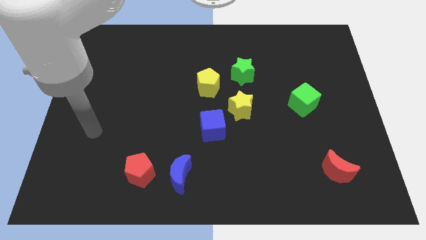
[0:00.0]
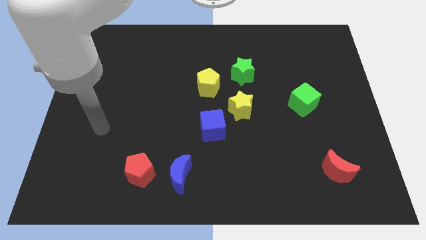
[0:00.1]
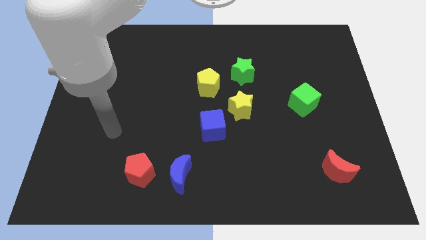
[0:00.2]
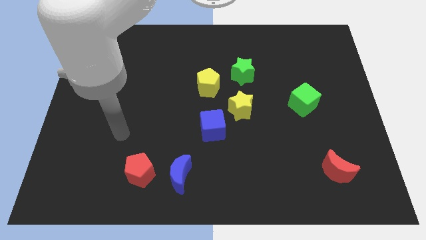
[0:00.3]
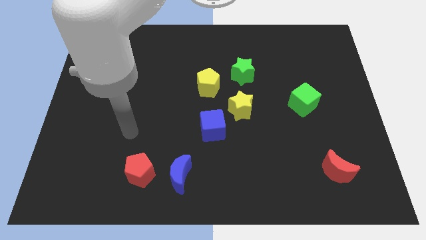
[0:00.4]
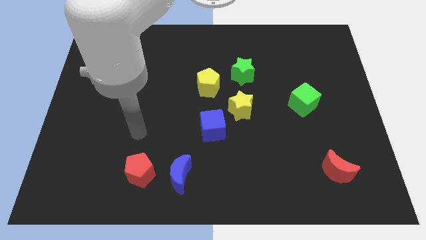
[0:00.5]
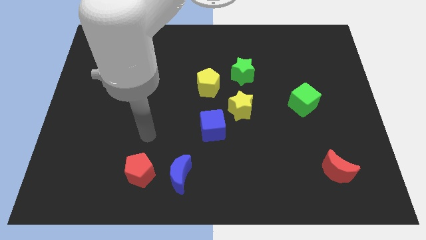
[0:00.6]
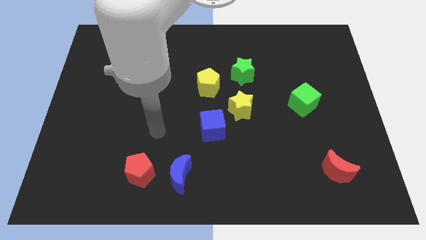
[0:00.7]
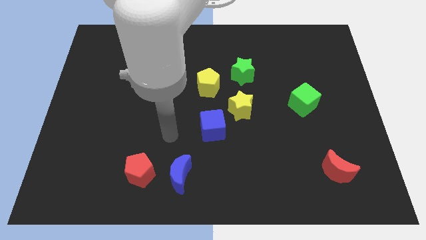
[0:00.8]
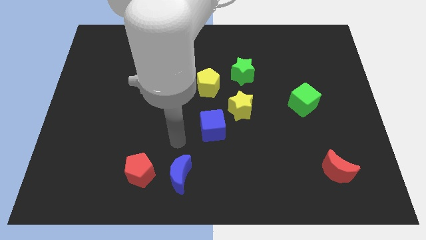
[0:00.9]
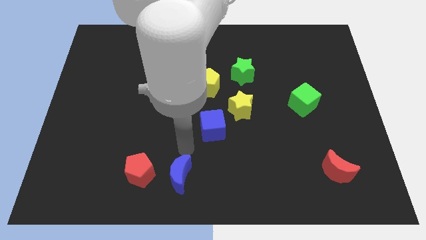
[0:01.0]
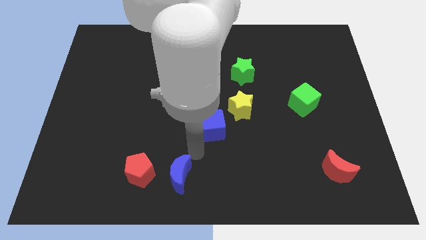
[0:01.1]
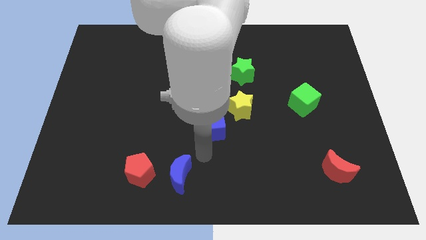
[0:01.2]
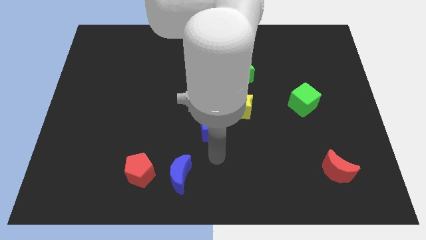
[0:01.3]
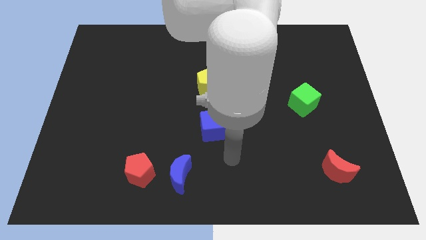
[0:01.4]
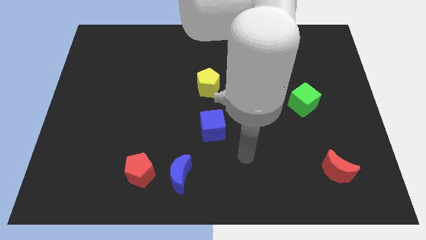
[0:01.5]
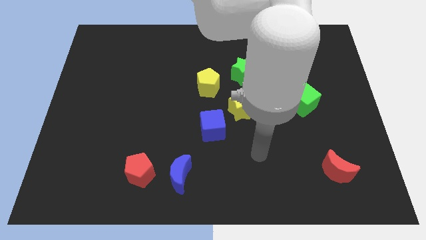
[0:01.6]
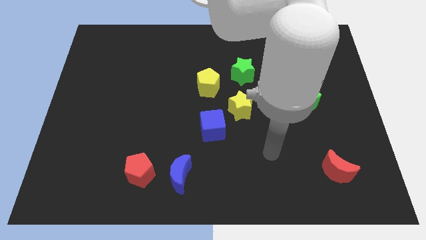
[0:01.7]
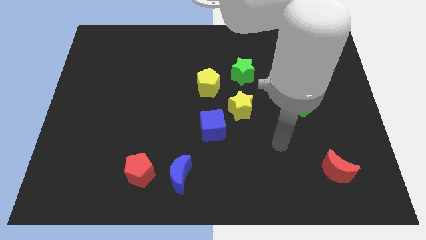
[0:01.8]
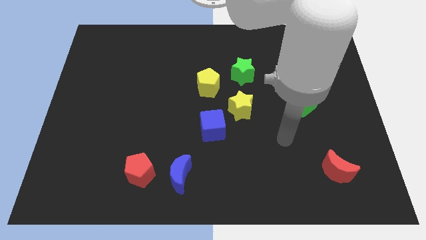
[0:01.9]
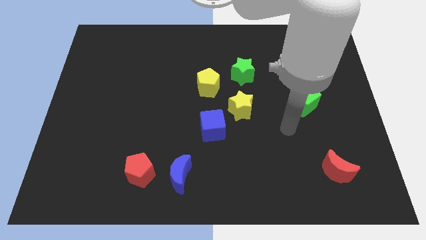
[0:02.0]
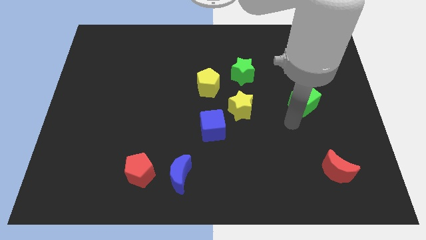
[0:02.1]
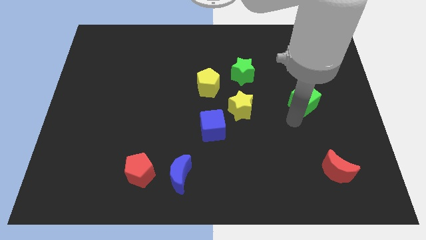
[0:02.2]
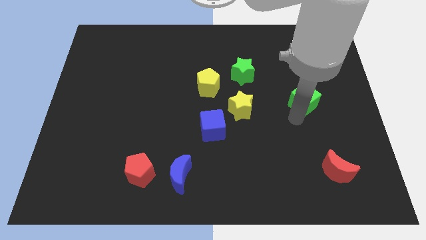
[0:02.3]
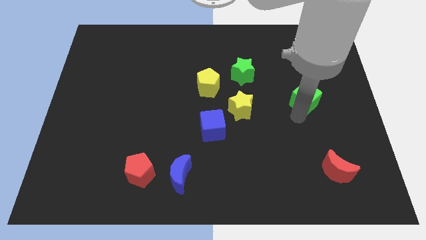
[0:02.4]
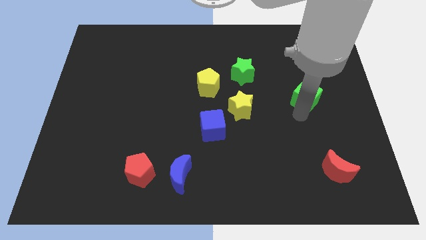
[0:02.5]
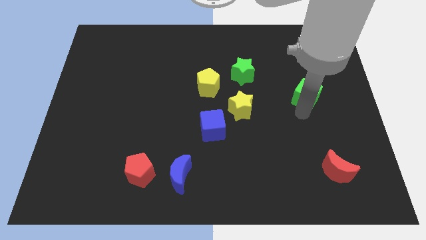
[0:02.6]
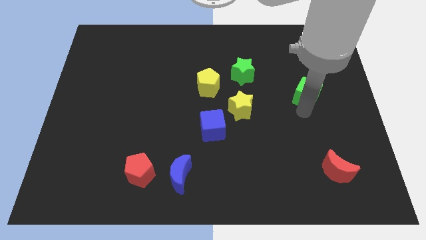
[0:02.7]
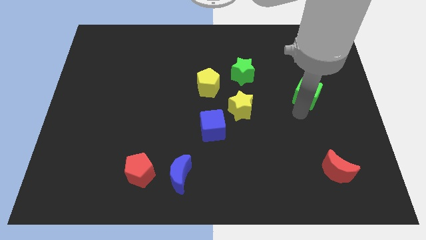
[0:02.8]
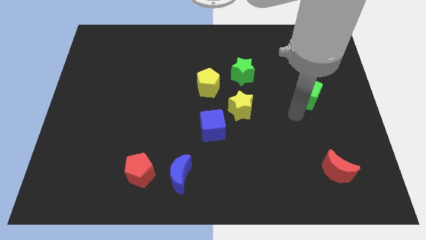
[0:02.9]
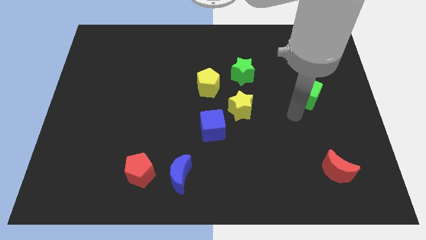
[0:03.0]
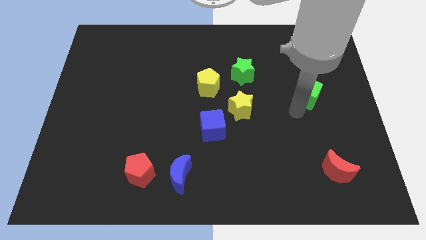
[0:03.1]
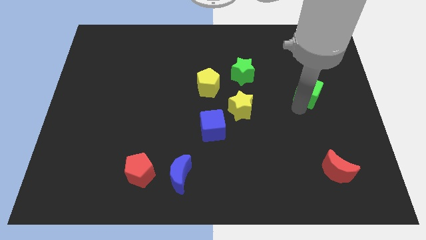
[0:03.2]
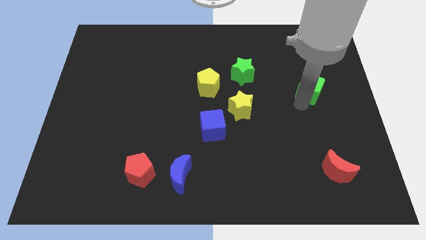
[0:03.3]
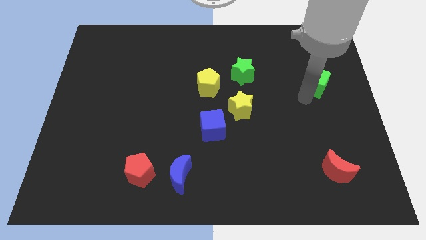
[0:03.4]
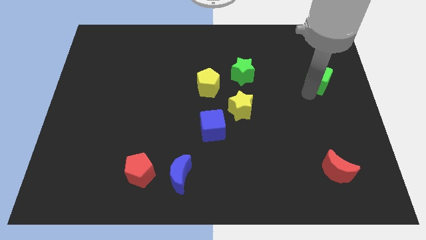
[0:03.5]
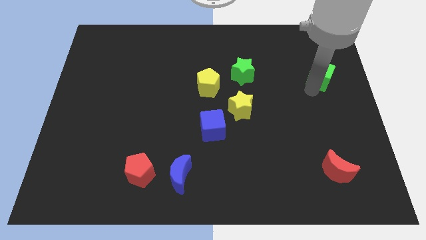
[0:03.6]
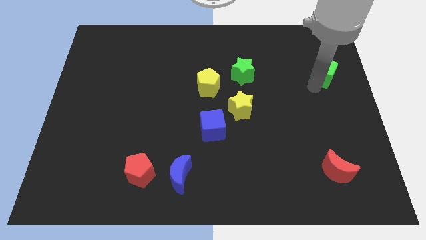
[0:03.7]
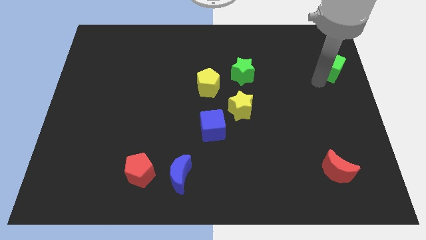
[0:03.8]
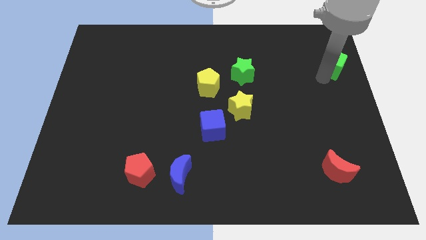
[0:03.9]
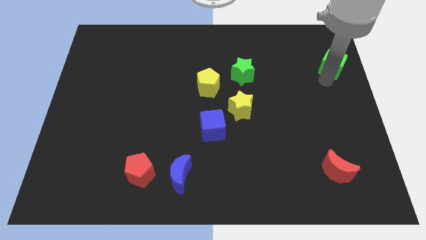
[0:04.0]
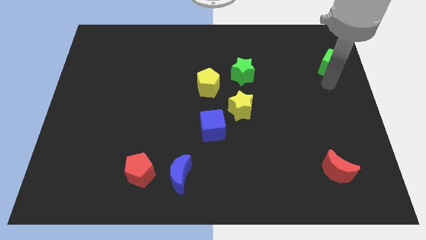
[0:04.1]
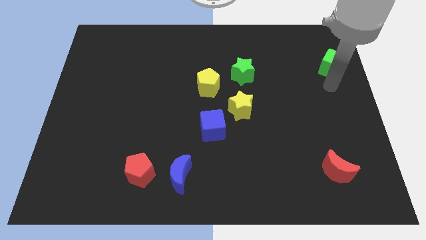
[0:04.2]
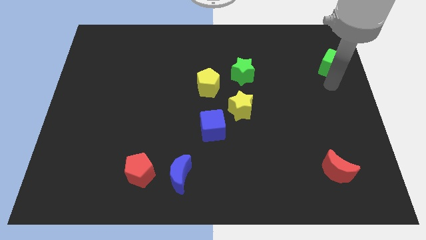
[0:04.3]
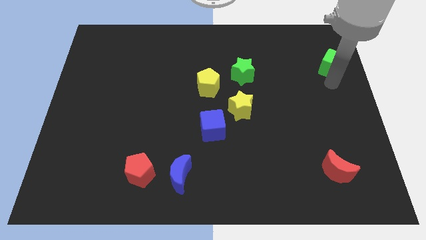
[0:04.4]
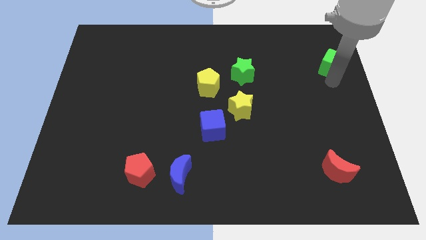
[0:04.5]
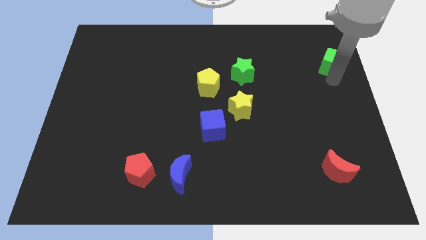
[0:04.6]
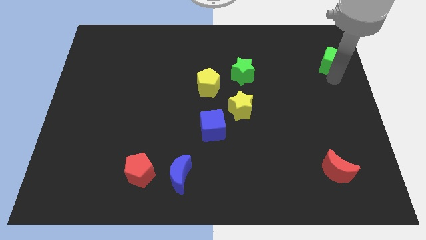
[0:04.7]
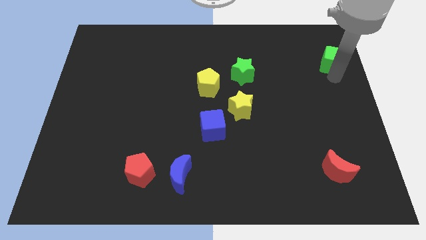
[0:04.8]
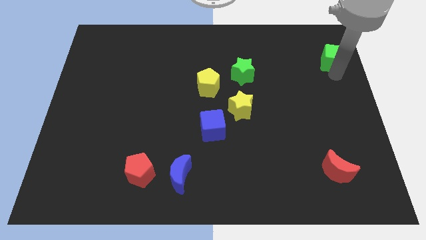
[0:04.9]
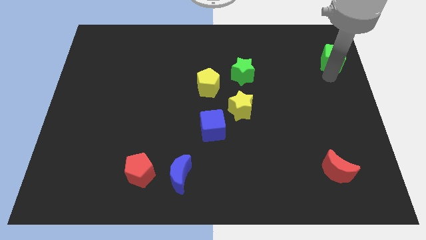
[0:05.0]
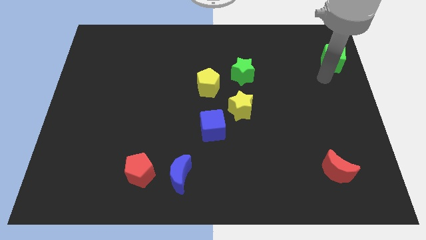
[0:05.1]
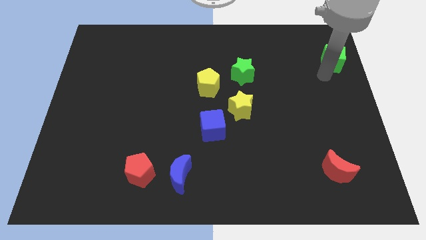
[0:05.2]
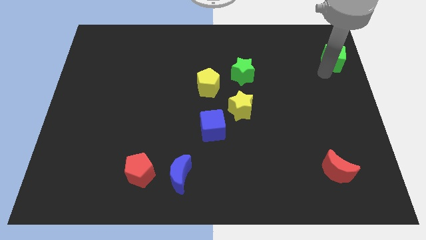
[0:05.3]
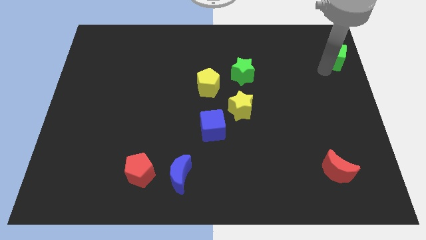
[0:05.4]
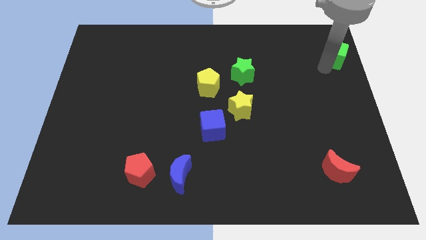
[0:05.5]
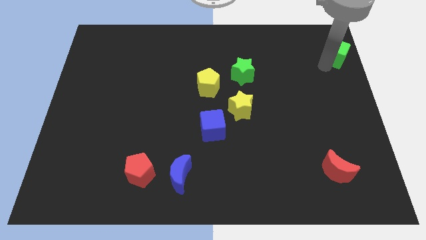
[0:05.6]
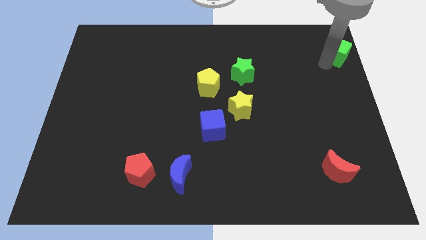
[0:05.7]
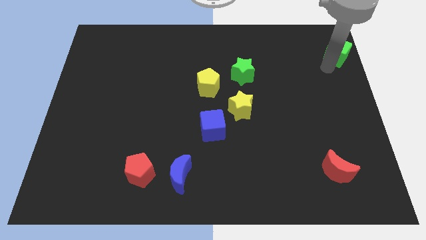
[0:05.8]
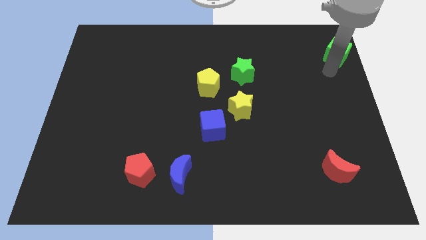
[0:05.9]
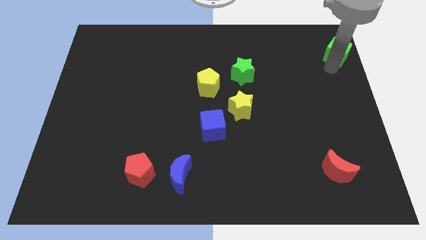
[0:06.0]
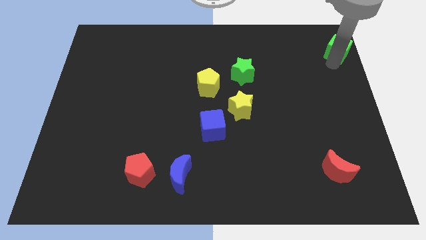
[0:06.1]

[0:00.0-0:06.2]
slide the green cube to the top right corner
